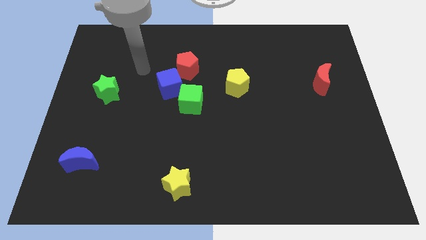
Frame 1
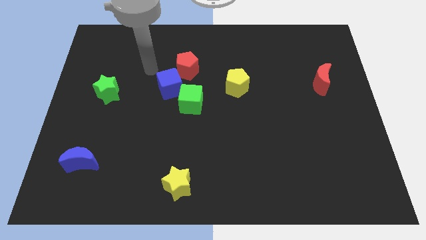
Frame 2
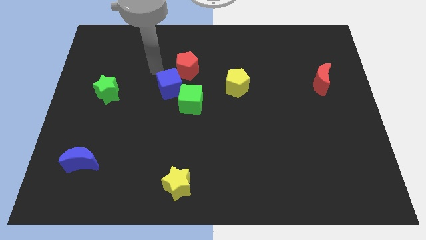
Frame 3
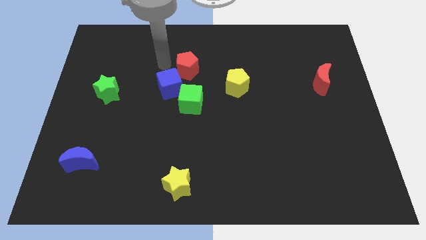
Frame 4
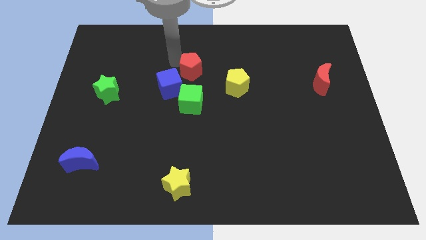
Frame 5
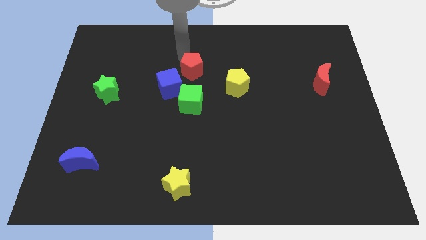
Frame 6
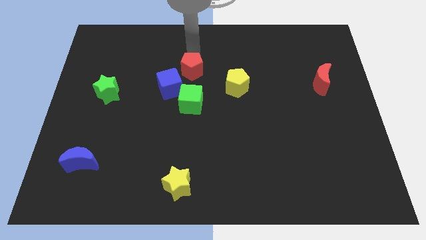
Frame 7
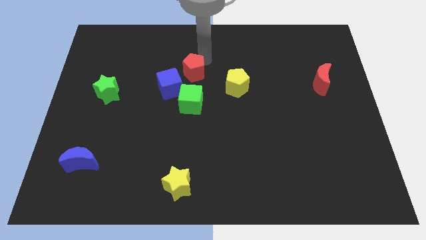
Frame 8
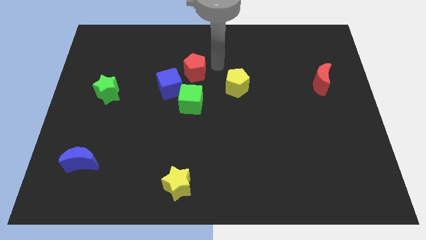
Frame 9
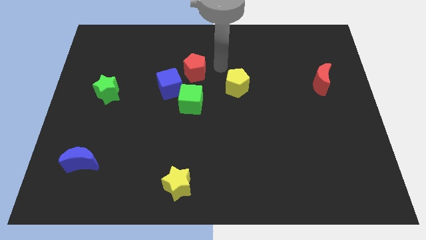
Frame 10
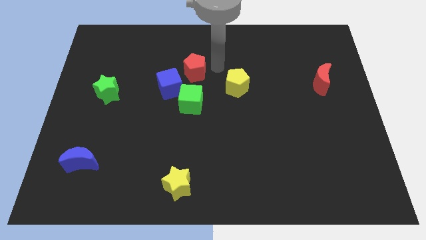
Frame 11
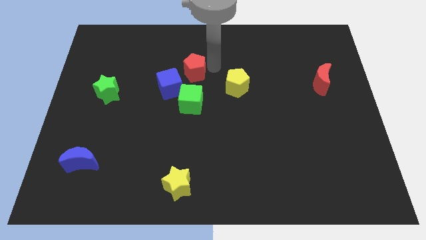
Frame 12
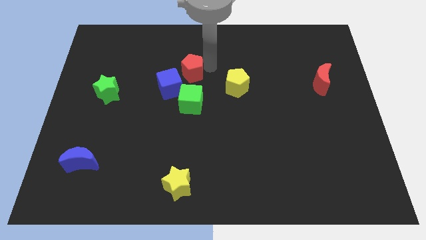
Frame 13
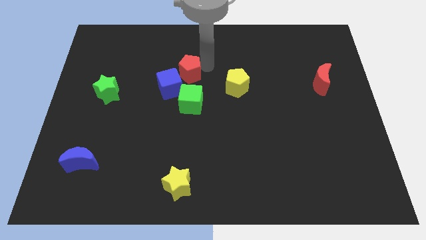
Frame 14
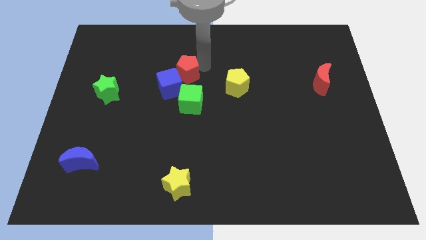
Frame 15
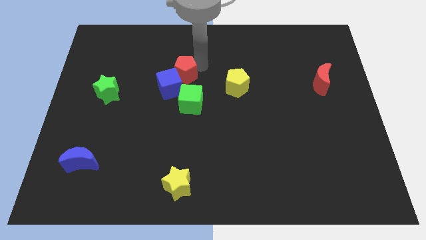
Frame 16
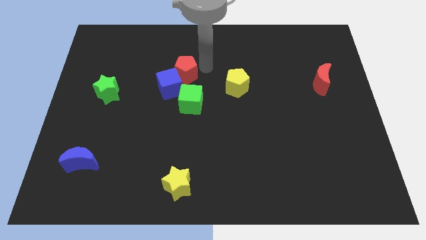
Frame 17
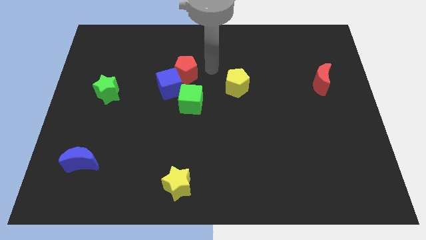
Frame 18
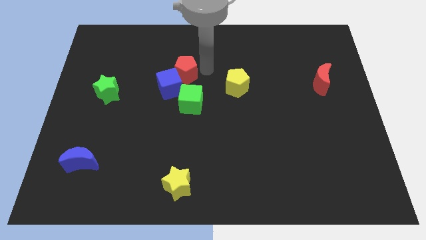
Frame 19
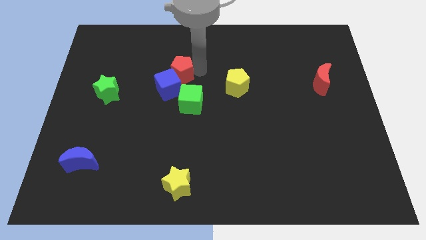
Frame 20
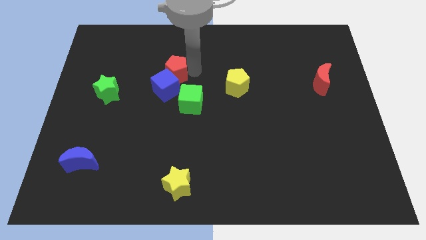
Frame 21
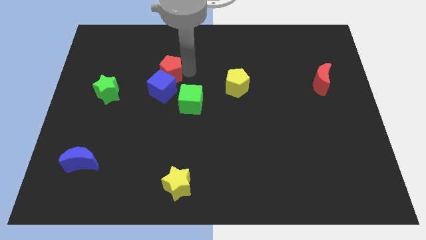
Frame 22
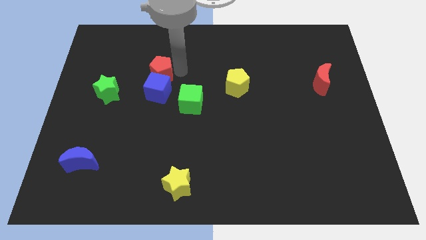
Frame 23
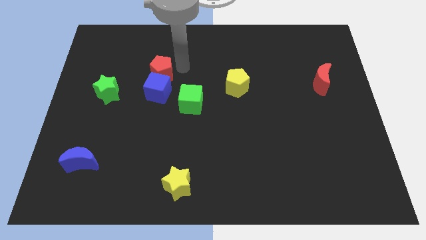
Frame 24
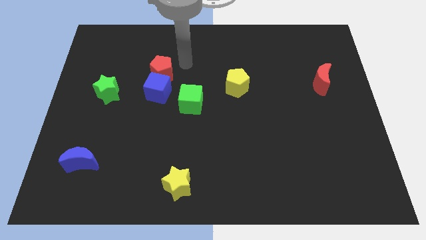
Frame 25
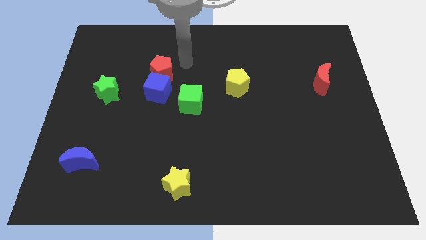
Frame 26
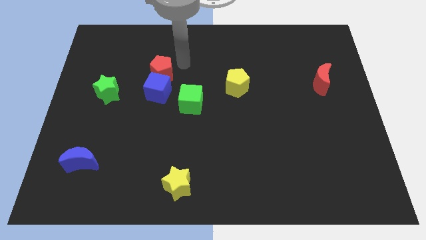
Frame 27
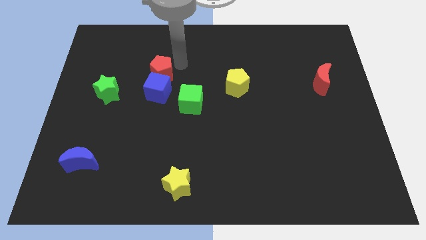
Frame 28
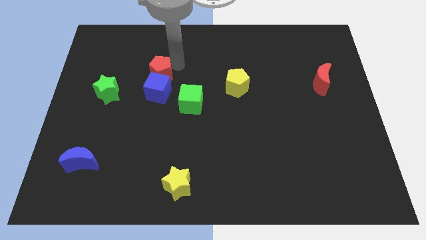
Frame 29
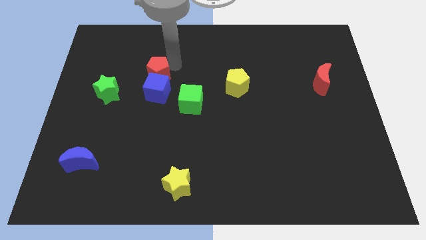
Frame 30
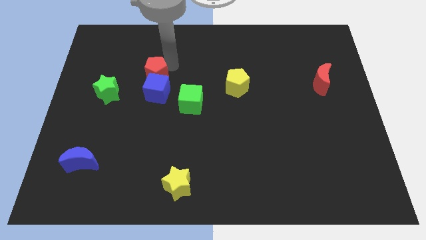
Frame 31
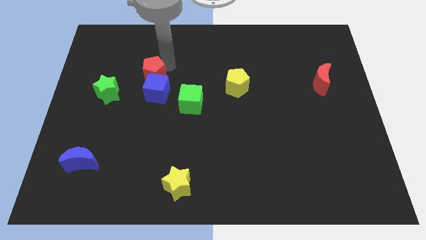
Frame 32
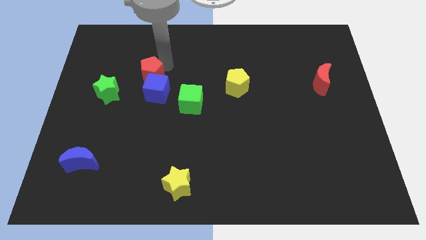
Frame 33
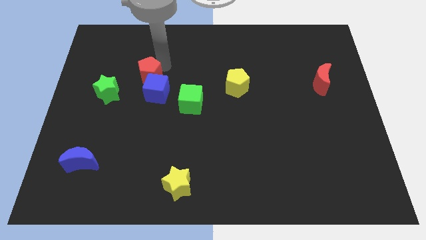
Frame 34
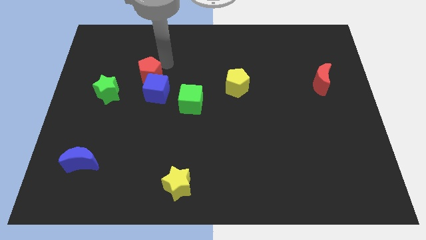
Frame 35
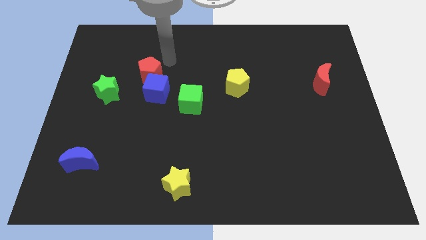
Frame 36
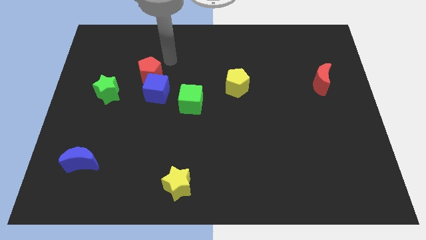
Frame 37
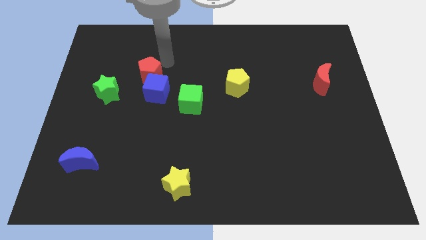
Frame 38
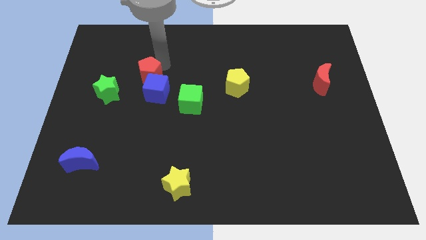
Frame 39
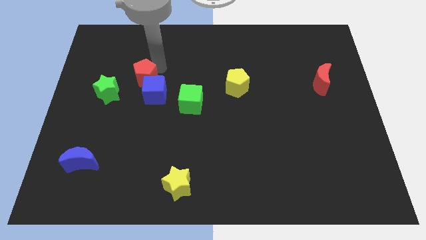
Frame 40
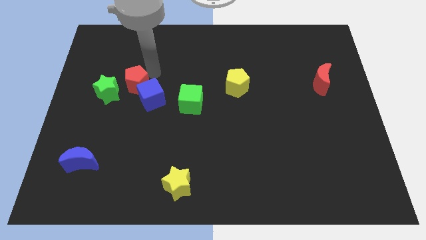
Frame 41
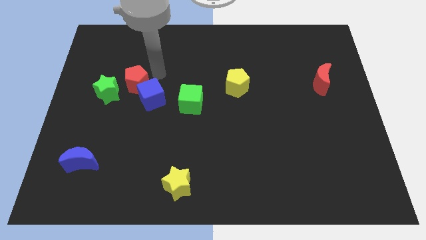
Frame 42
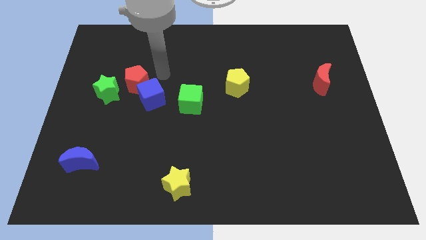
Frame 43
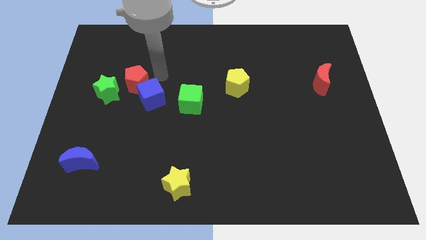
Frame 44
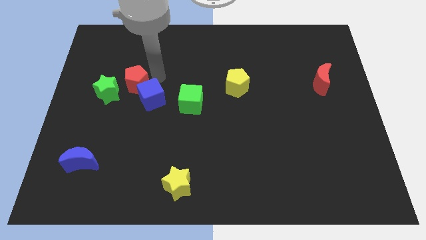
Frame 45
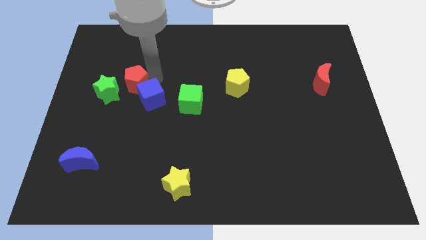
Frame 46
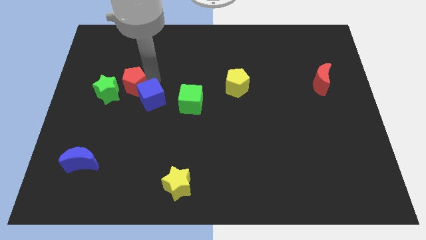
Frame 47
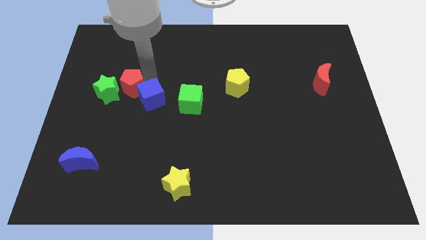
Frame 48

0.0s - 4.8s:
push the red pentagon towards the green star

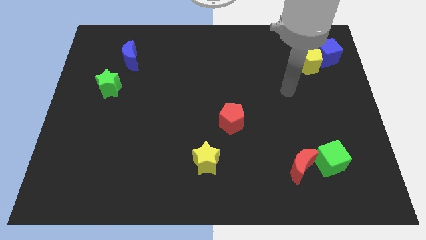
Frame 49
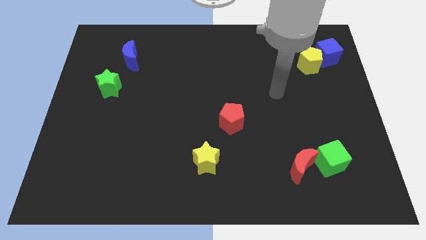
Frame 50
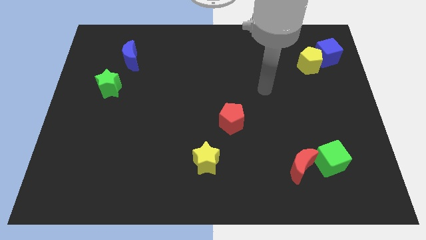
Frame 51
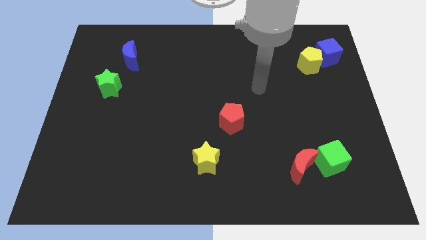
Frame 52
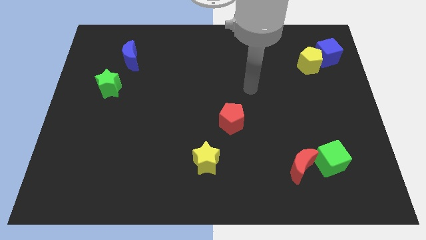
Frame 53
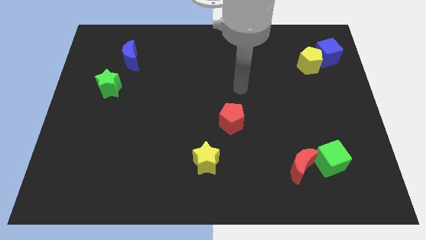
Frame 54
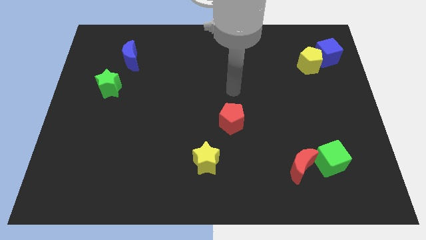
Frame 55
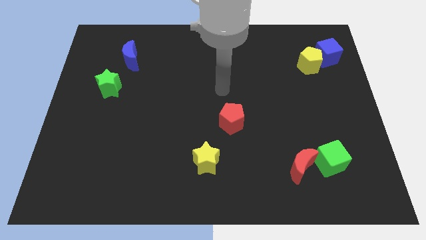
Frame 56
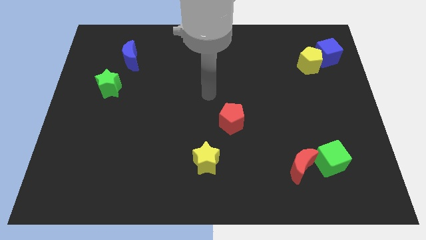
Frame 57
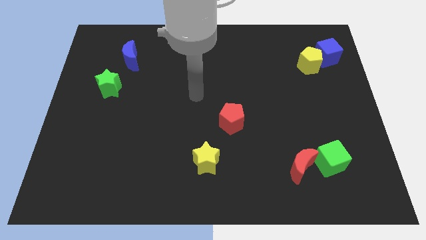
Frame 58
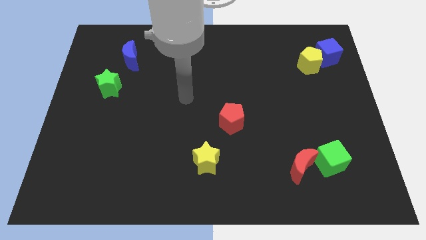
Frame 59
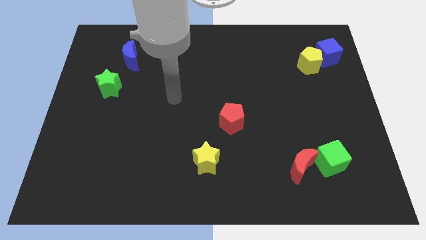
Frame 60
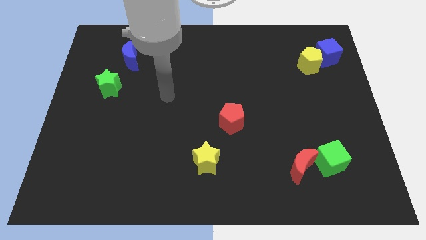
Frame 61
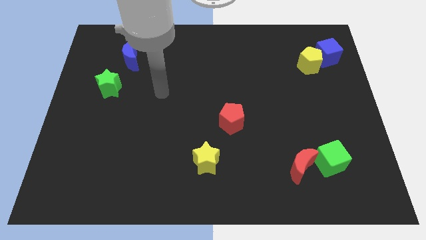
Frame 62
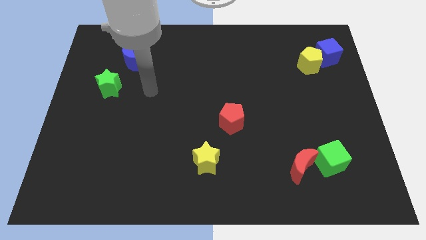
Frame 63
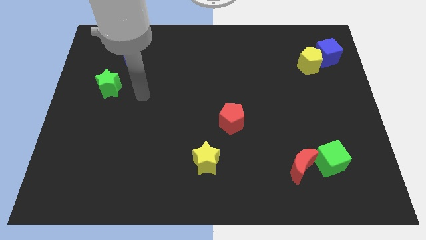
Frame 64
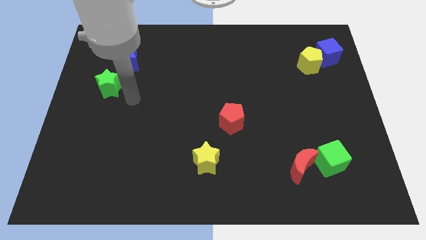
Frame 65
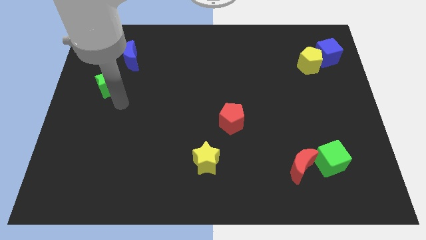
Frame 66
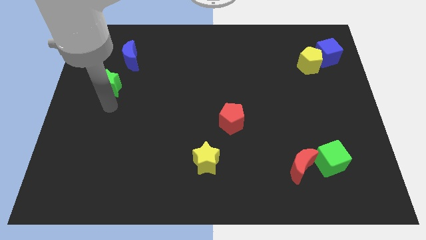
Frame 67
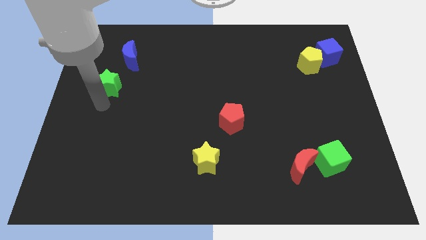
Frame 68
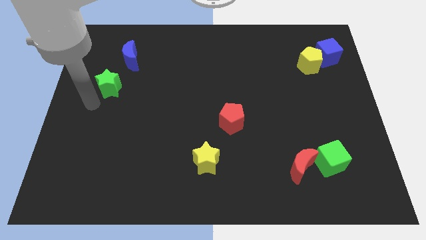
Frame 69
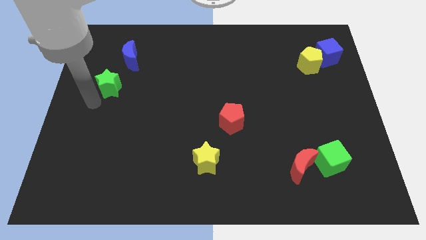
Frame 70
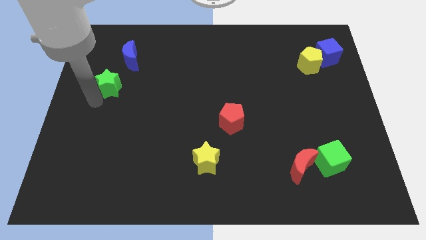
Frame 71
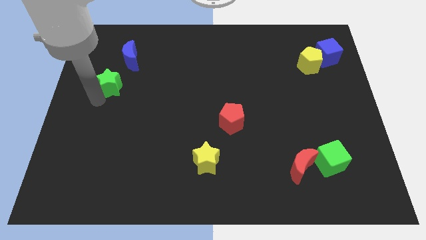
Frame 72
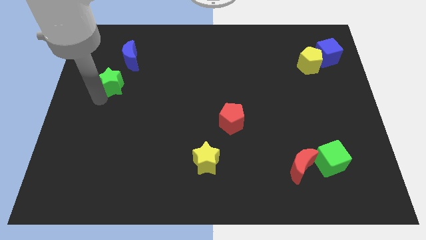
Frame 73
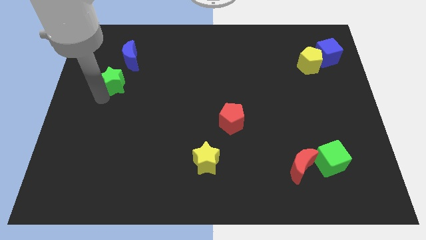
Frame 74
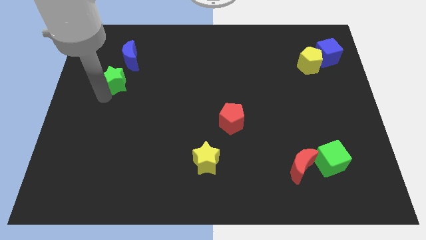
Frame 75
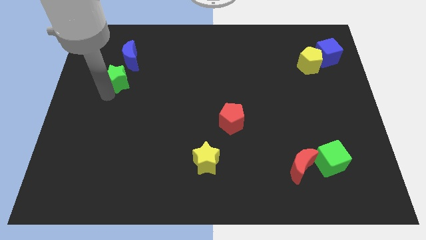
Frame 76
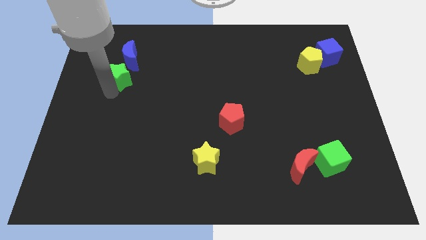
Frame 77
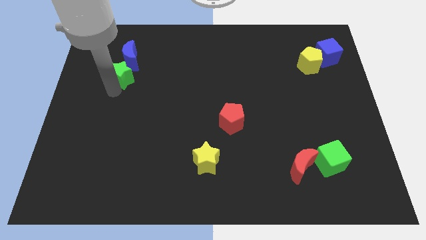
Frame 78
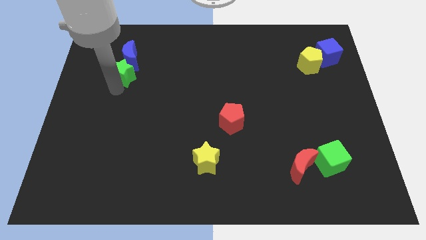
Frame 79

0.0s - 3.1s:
slide the green star to the blue moon
